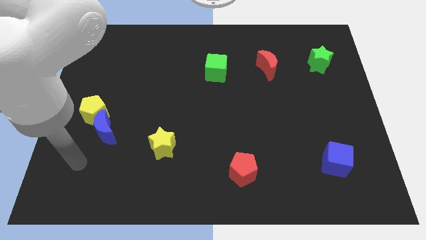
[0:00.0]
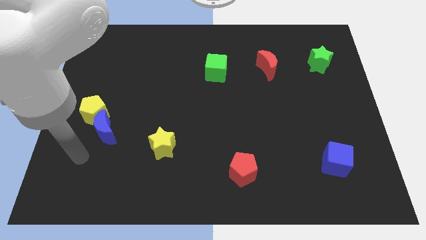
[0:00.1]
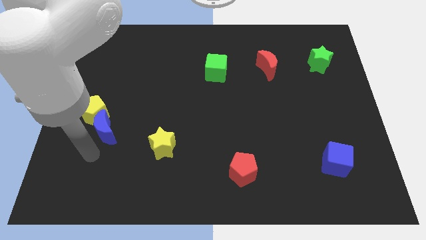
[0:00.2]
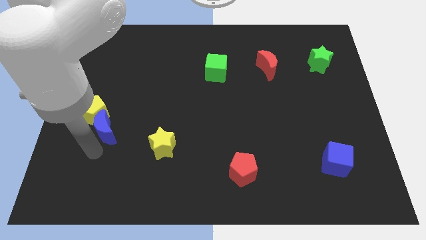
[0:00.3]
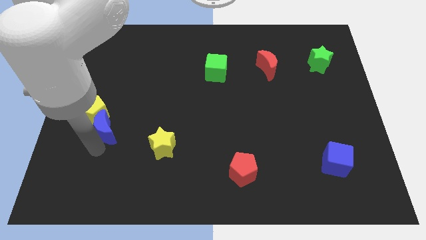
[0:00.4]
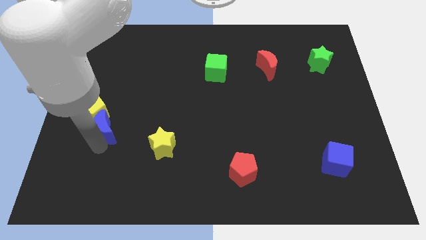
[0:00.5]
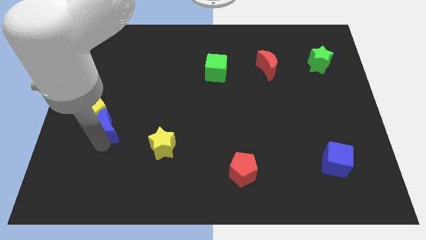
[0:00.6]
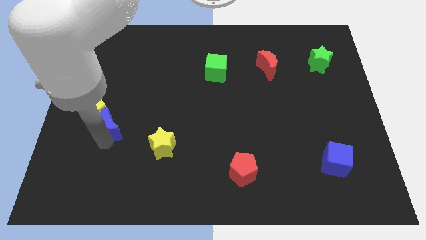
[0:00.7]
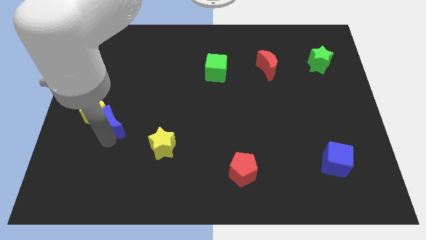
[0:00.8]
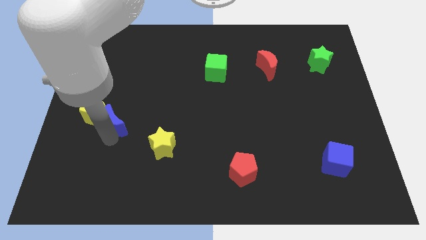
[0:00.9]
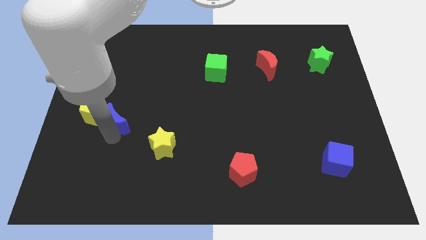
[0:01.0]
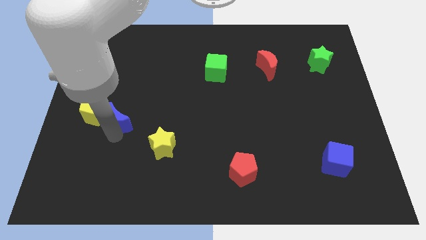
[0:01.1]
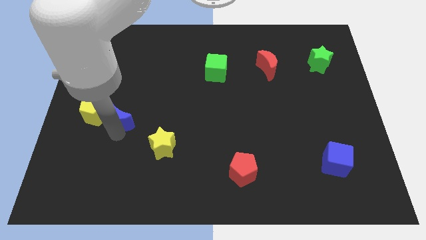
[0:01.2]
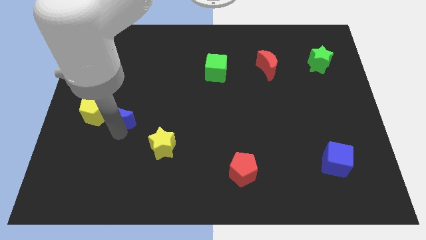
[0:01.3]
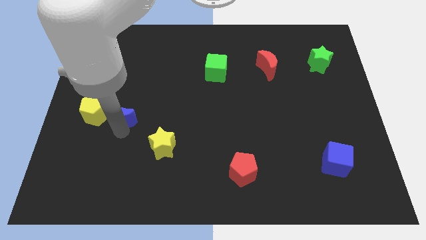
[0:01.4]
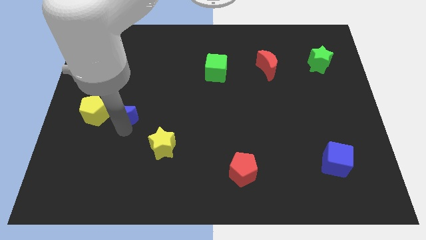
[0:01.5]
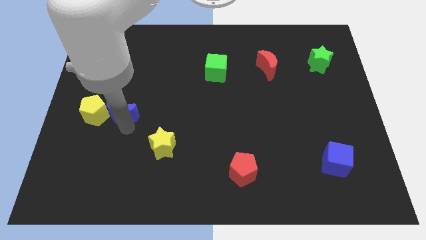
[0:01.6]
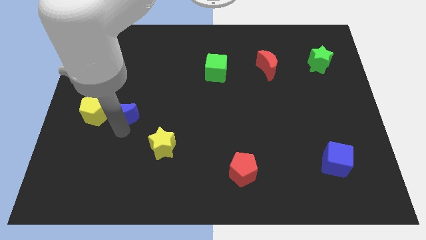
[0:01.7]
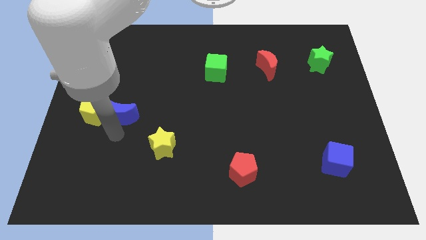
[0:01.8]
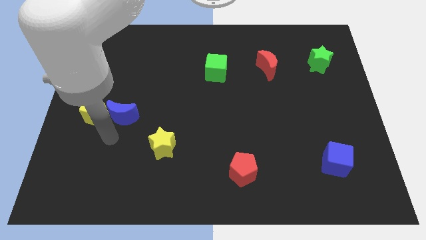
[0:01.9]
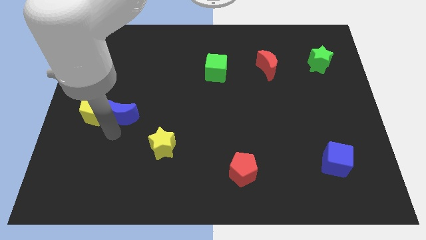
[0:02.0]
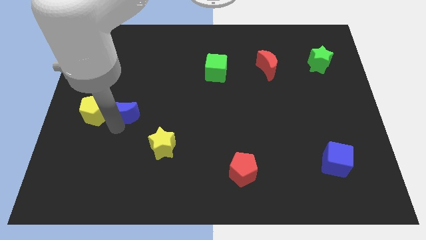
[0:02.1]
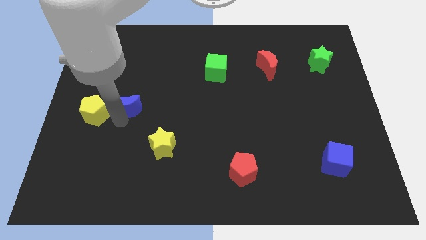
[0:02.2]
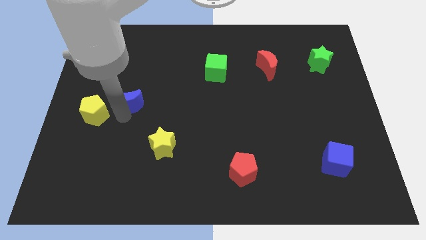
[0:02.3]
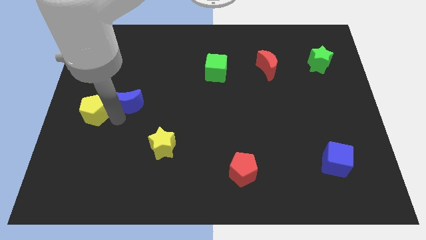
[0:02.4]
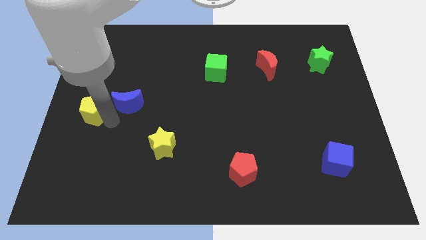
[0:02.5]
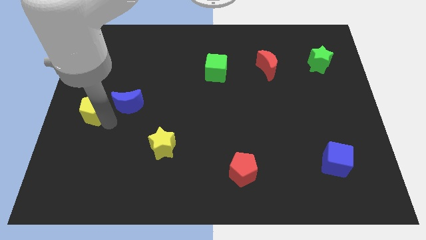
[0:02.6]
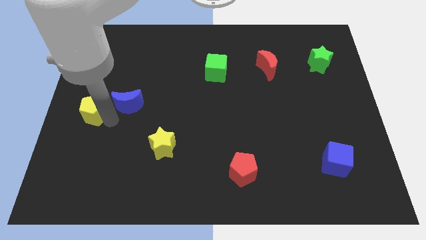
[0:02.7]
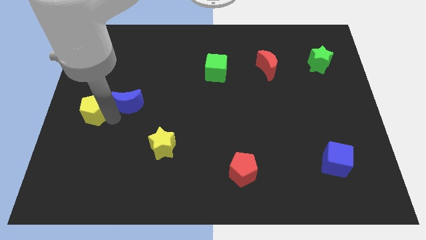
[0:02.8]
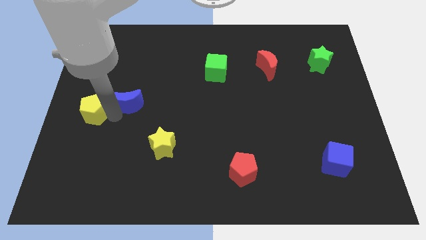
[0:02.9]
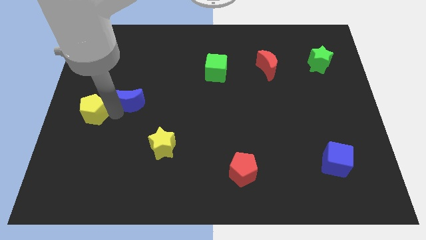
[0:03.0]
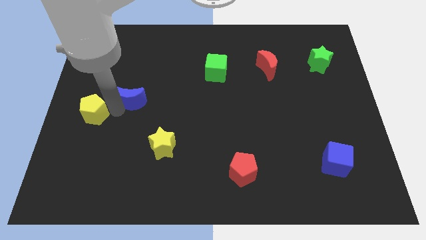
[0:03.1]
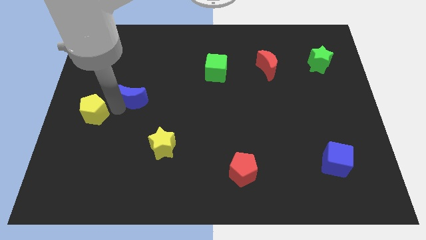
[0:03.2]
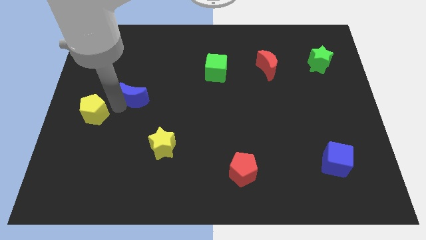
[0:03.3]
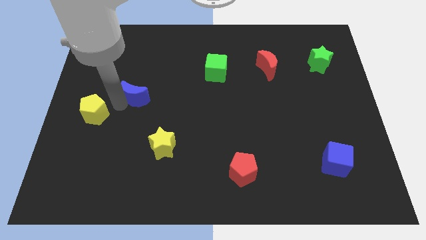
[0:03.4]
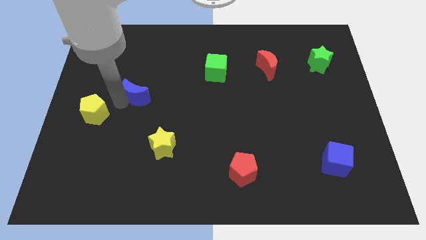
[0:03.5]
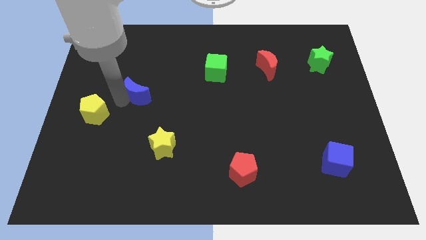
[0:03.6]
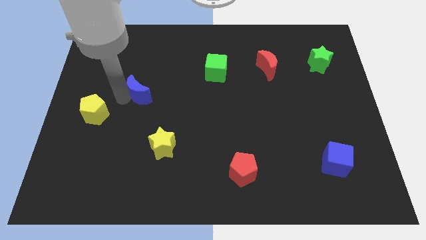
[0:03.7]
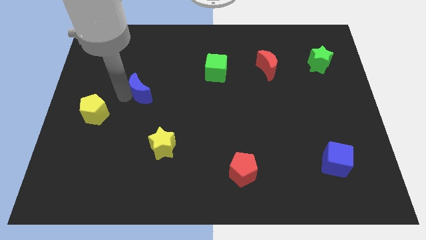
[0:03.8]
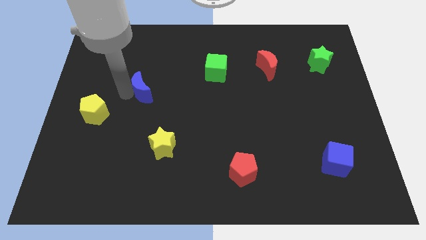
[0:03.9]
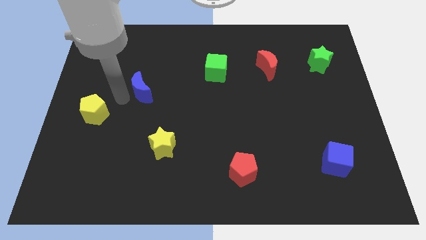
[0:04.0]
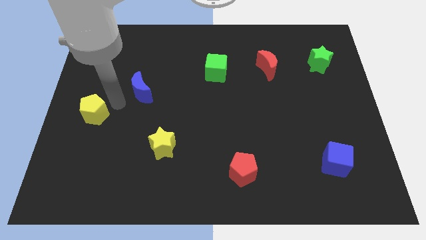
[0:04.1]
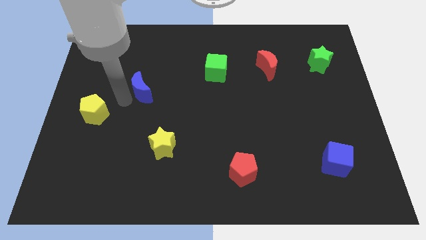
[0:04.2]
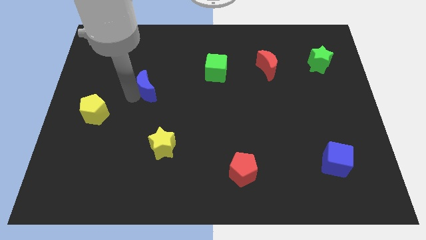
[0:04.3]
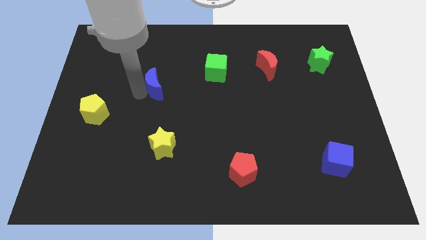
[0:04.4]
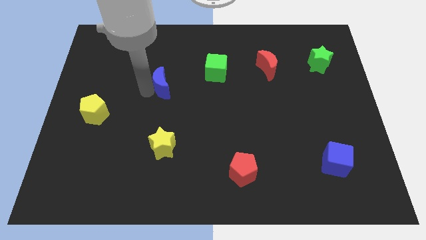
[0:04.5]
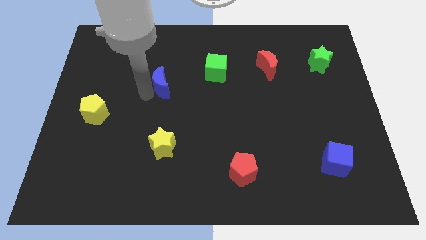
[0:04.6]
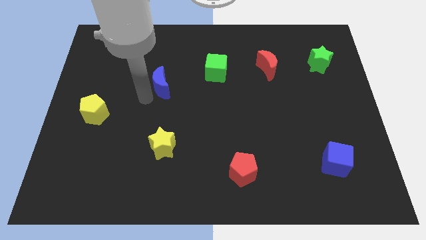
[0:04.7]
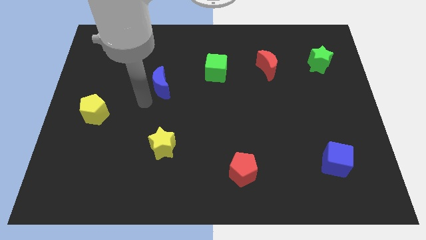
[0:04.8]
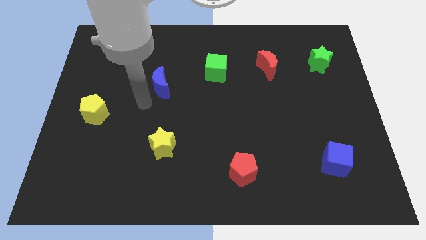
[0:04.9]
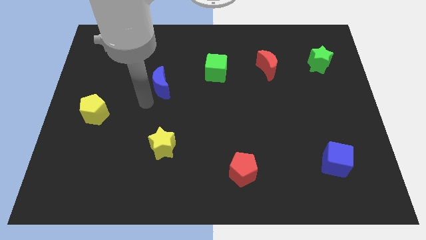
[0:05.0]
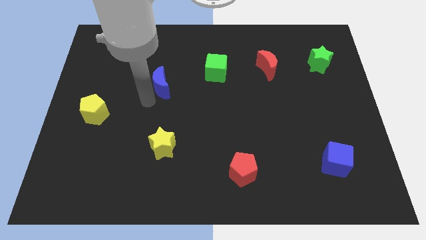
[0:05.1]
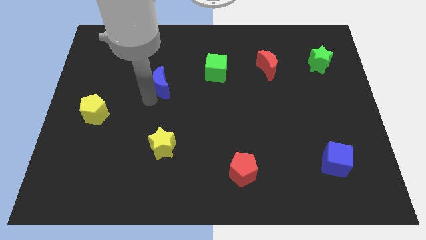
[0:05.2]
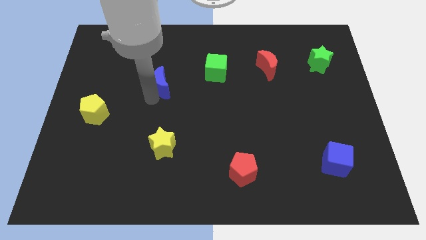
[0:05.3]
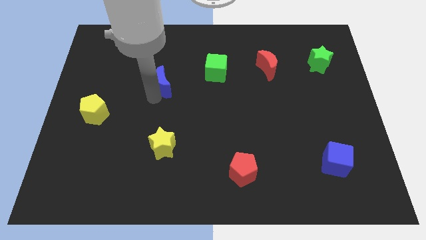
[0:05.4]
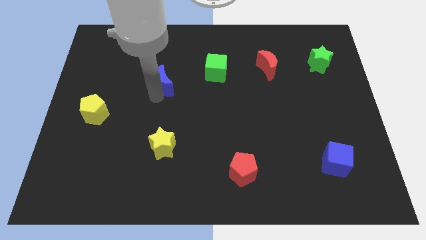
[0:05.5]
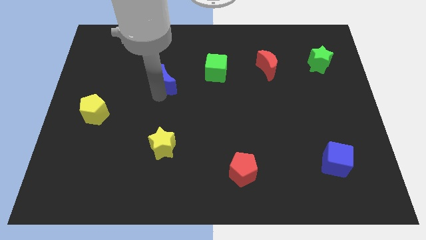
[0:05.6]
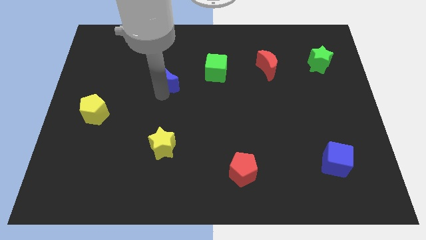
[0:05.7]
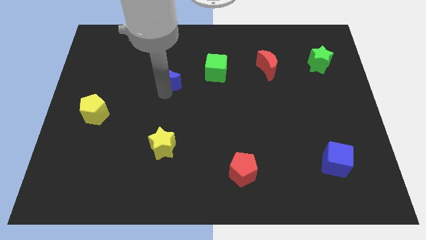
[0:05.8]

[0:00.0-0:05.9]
slide the blue moon up and to the right

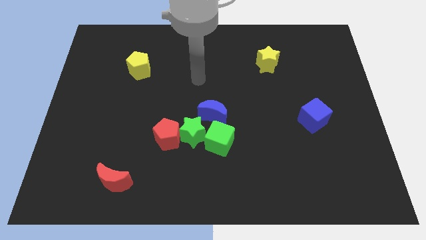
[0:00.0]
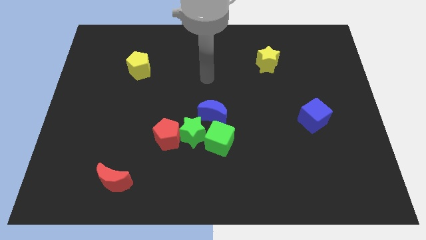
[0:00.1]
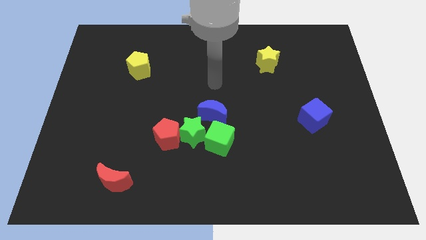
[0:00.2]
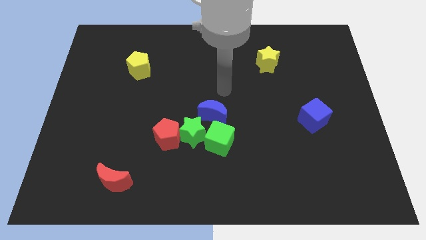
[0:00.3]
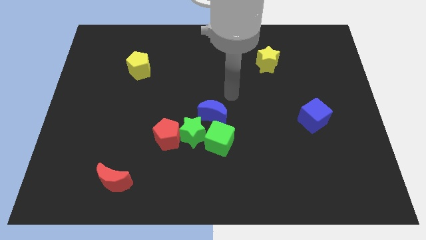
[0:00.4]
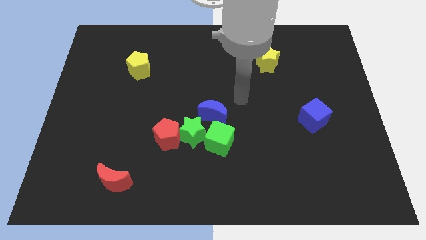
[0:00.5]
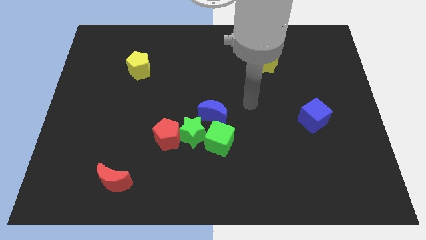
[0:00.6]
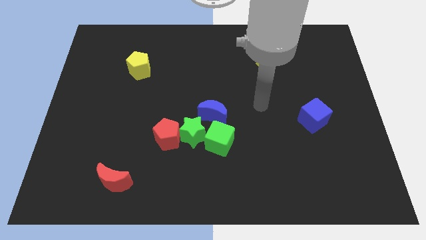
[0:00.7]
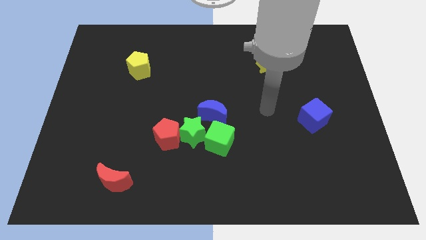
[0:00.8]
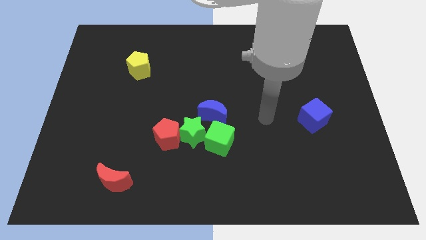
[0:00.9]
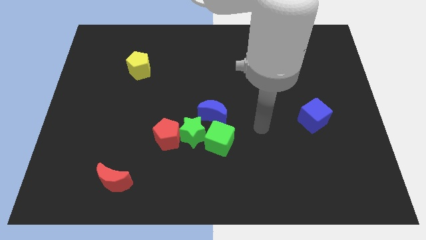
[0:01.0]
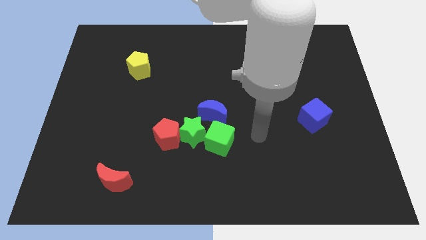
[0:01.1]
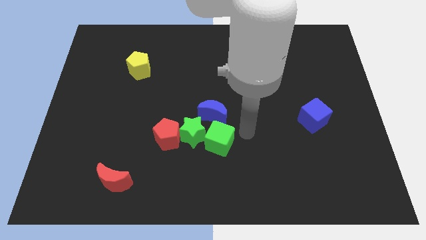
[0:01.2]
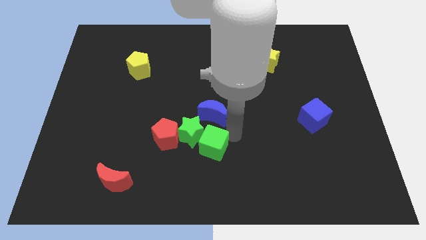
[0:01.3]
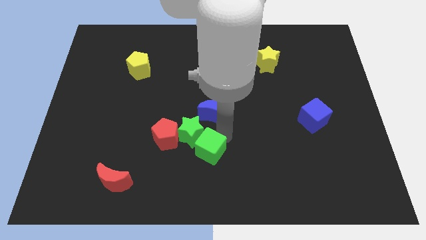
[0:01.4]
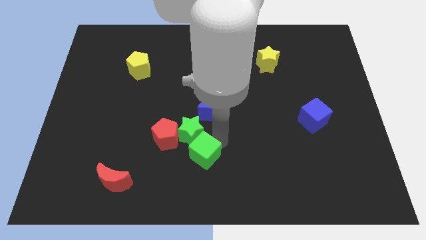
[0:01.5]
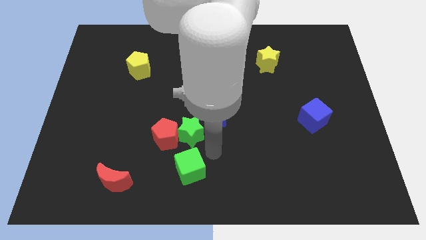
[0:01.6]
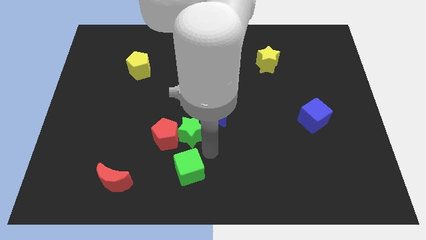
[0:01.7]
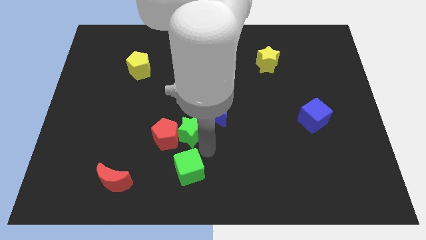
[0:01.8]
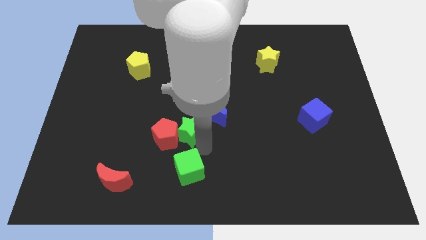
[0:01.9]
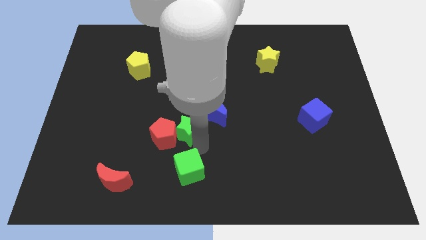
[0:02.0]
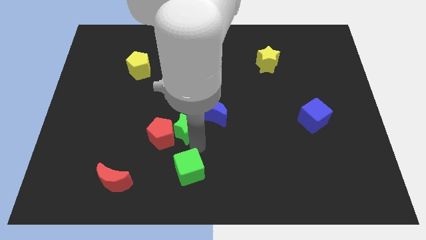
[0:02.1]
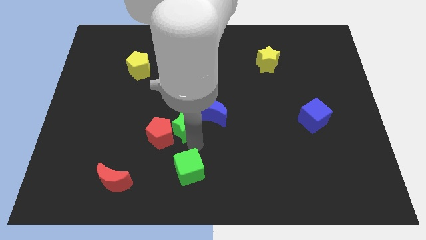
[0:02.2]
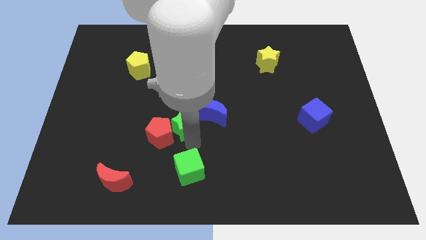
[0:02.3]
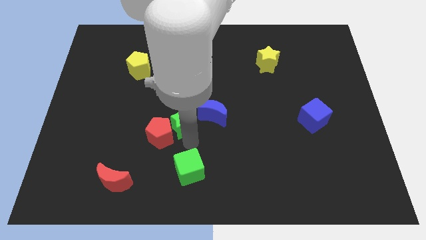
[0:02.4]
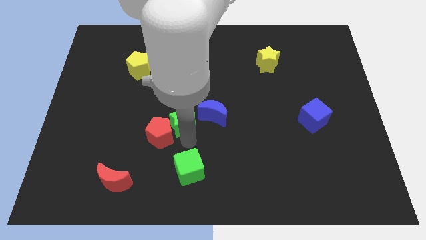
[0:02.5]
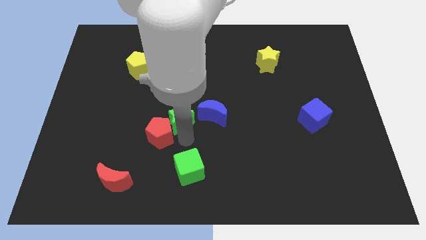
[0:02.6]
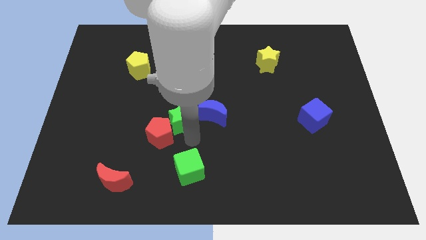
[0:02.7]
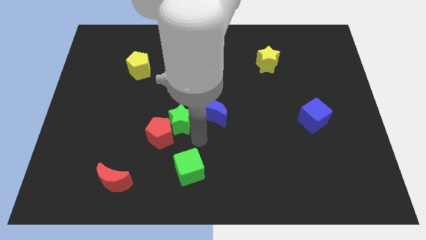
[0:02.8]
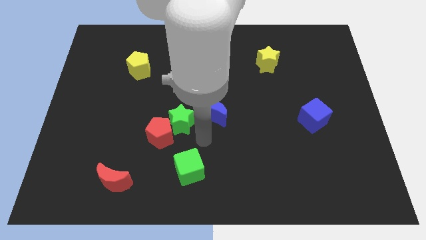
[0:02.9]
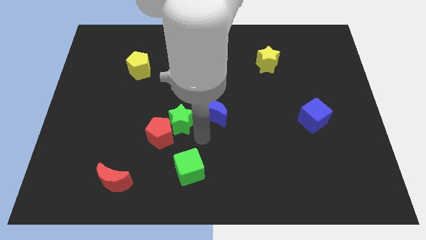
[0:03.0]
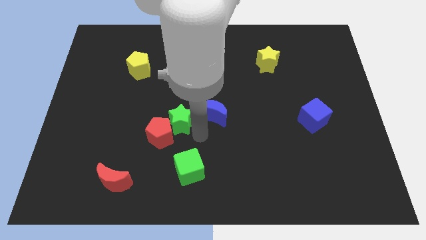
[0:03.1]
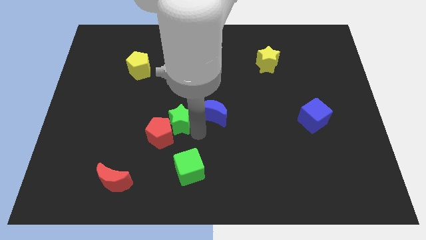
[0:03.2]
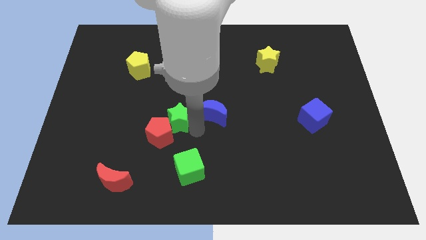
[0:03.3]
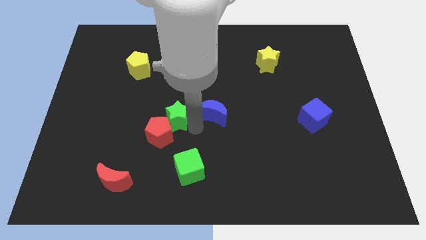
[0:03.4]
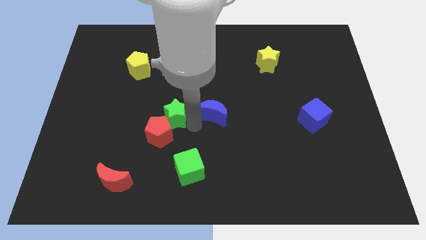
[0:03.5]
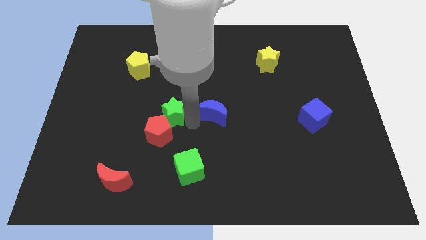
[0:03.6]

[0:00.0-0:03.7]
move the green star upwards and to the left a little
